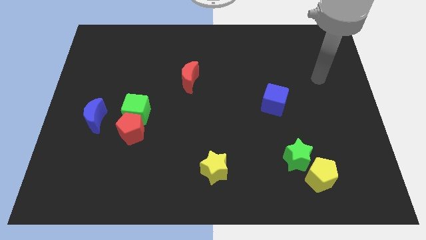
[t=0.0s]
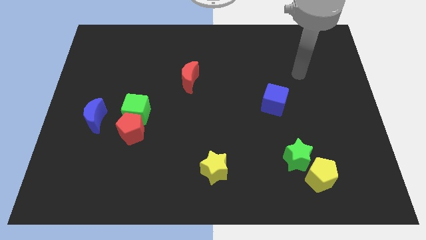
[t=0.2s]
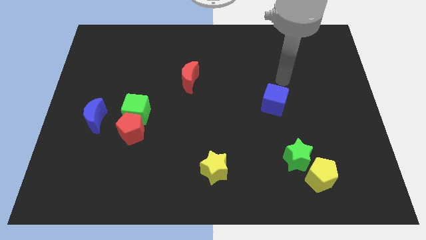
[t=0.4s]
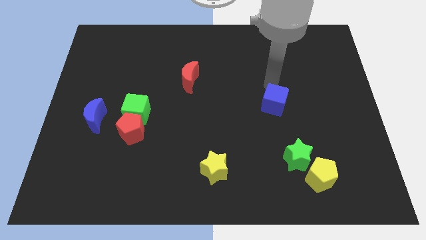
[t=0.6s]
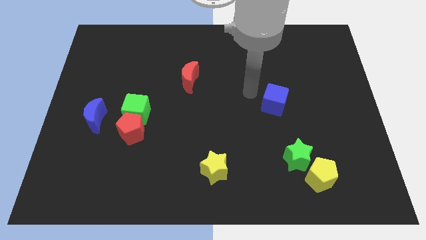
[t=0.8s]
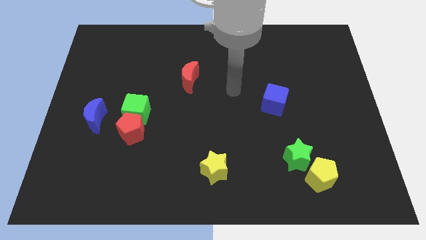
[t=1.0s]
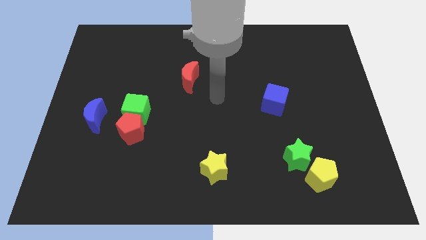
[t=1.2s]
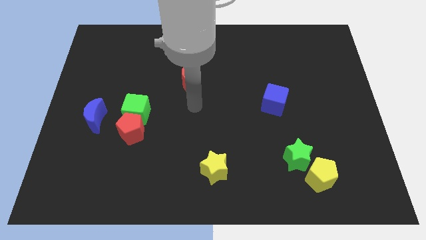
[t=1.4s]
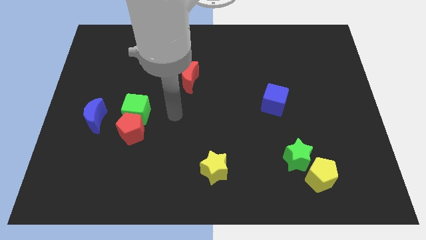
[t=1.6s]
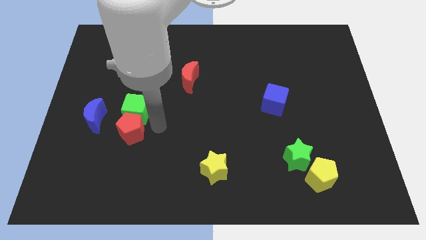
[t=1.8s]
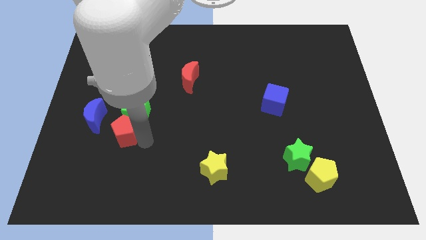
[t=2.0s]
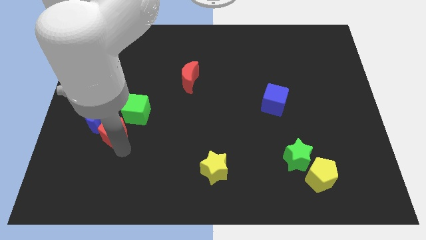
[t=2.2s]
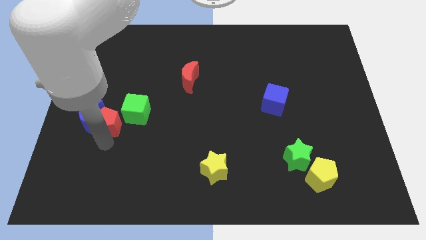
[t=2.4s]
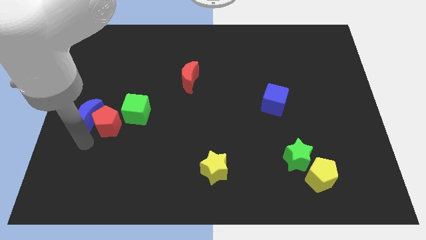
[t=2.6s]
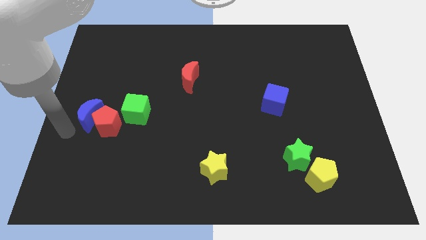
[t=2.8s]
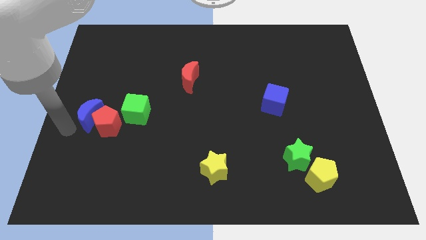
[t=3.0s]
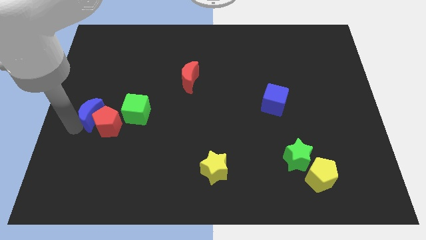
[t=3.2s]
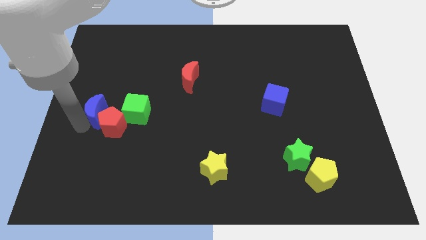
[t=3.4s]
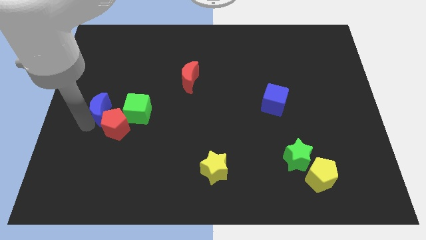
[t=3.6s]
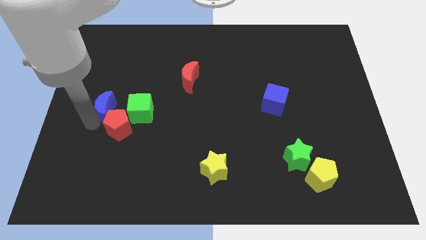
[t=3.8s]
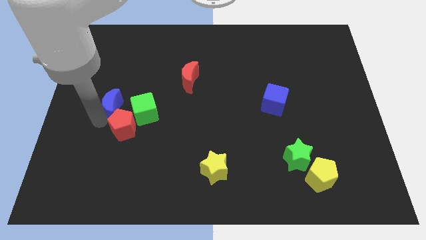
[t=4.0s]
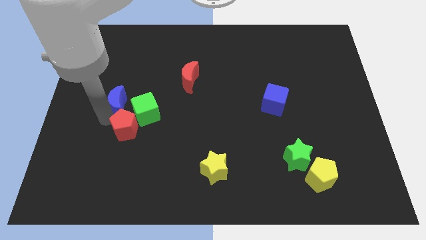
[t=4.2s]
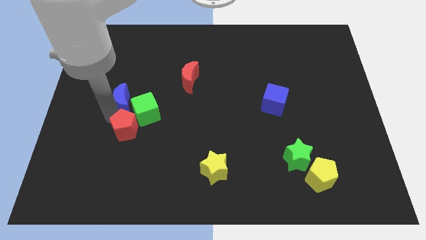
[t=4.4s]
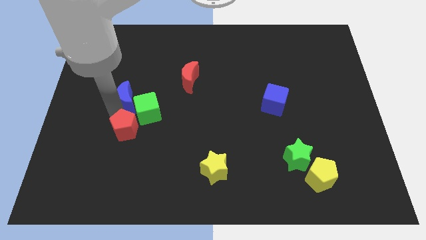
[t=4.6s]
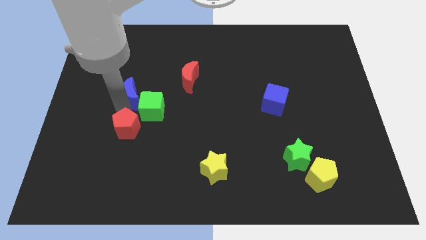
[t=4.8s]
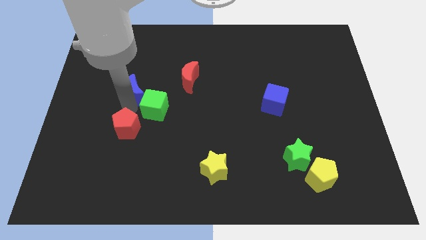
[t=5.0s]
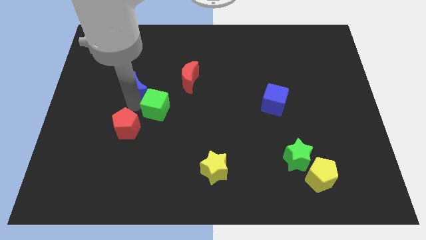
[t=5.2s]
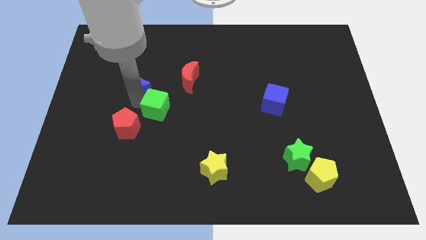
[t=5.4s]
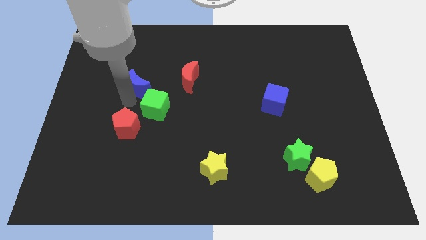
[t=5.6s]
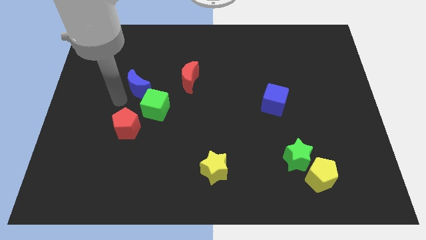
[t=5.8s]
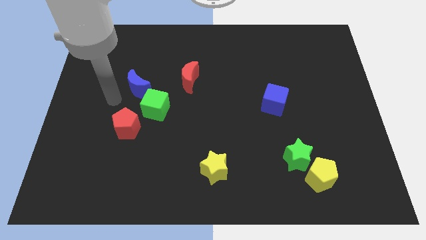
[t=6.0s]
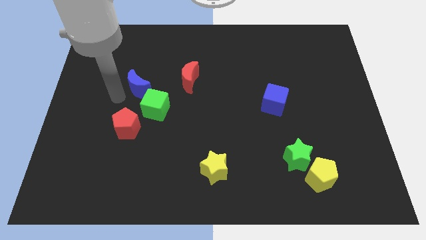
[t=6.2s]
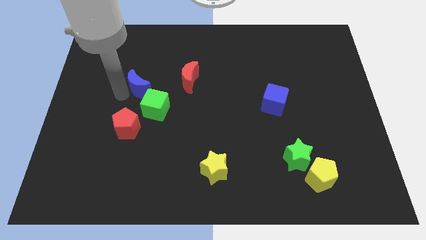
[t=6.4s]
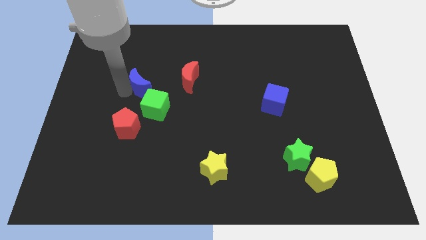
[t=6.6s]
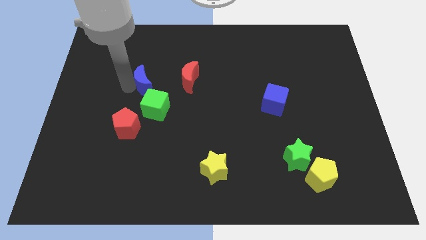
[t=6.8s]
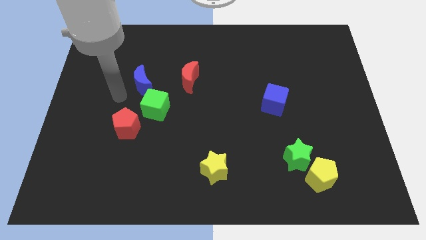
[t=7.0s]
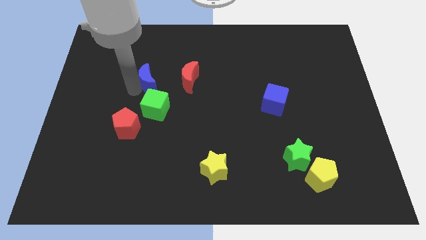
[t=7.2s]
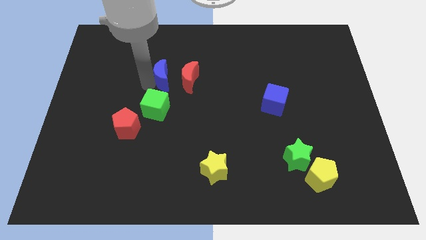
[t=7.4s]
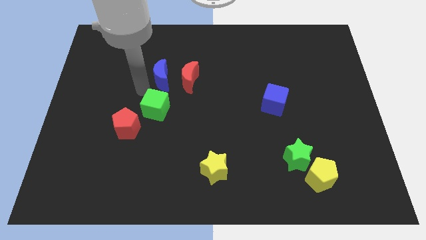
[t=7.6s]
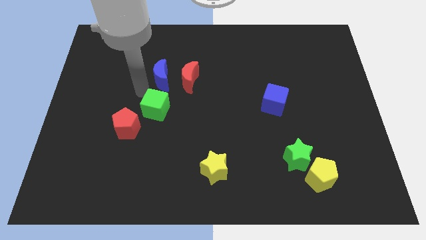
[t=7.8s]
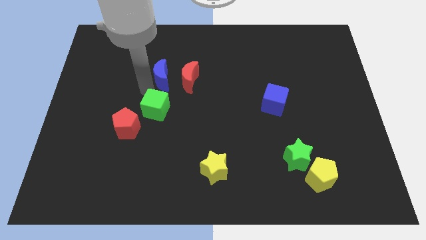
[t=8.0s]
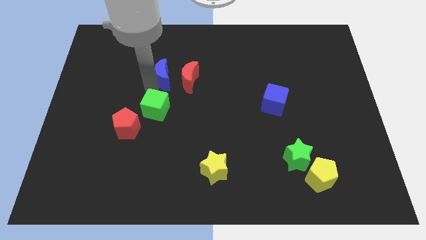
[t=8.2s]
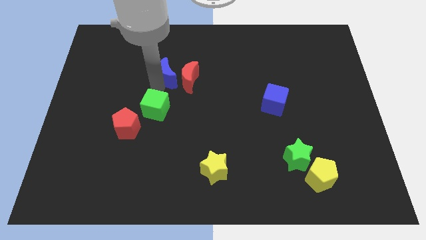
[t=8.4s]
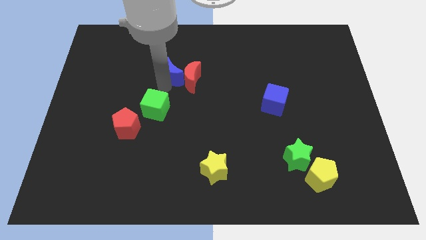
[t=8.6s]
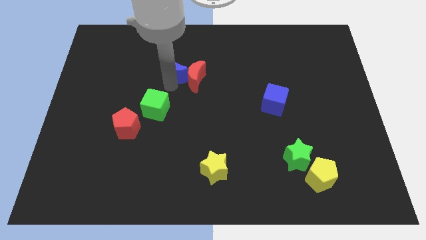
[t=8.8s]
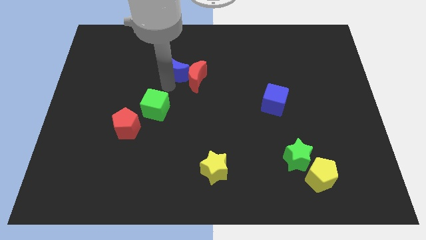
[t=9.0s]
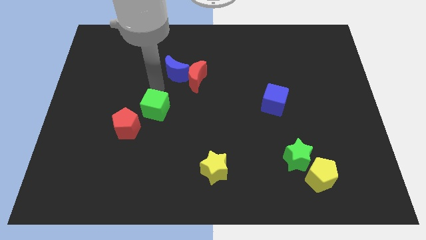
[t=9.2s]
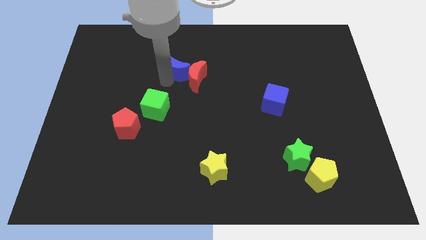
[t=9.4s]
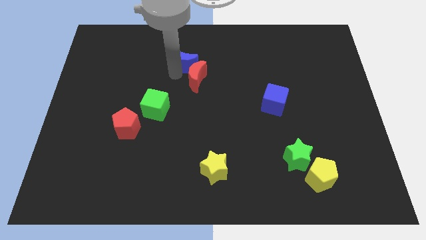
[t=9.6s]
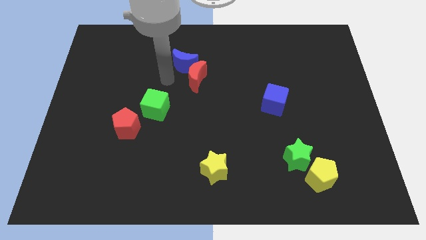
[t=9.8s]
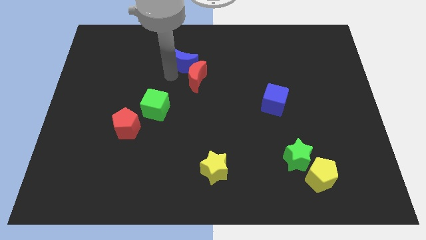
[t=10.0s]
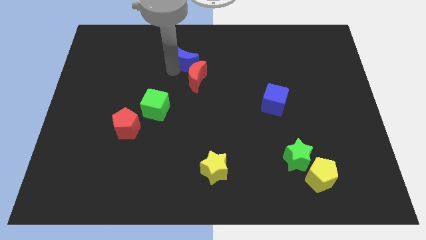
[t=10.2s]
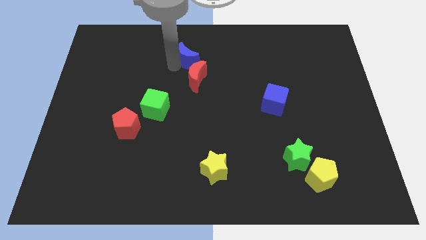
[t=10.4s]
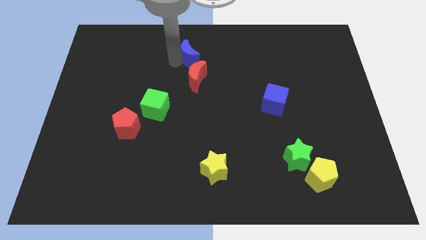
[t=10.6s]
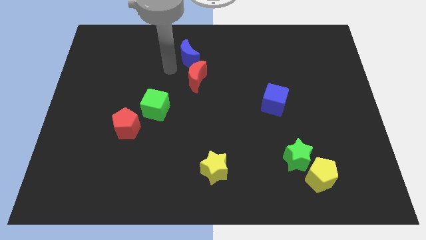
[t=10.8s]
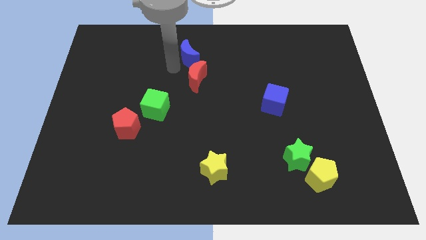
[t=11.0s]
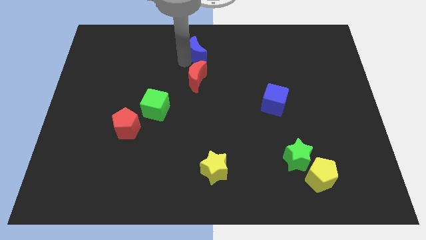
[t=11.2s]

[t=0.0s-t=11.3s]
push the blue moon to the towards your base

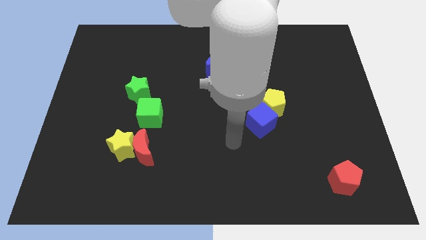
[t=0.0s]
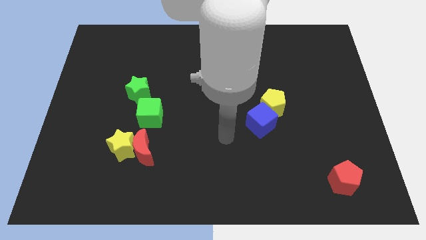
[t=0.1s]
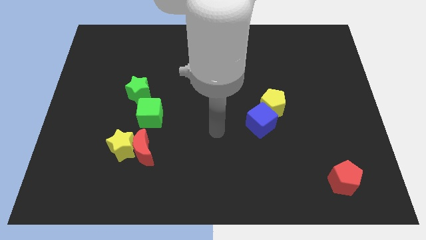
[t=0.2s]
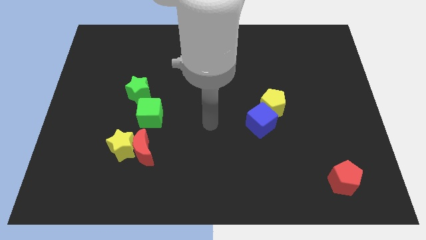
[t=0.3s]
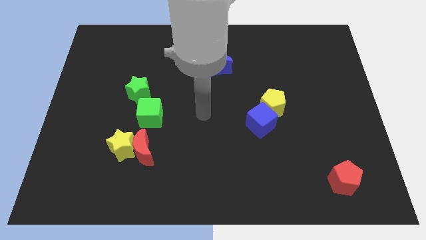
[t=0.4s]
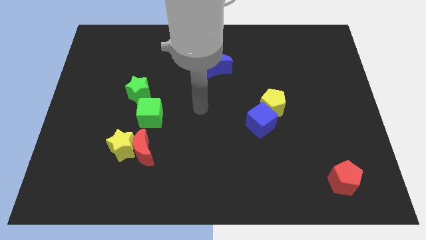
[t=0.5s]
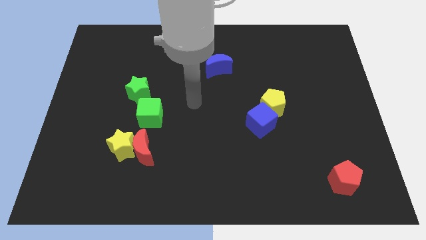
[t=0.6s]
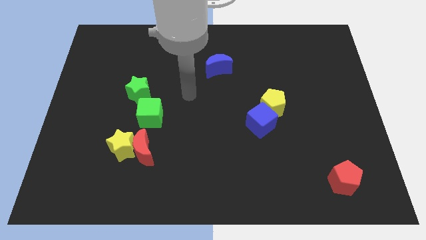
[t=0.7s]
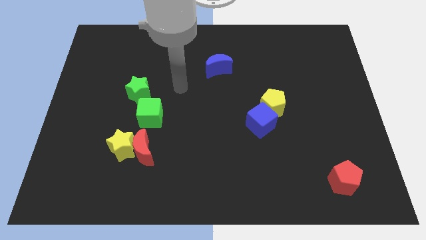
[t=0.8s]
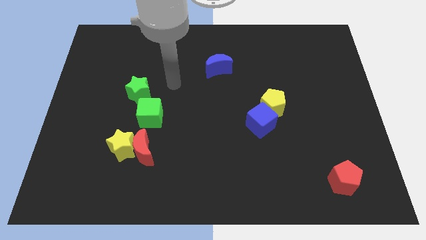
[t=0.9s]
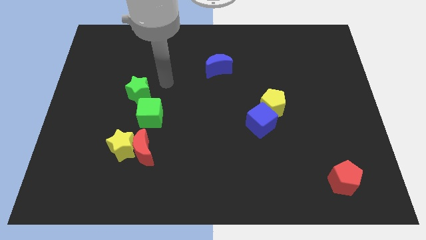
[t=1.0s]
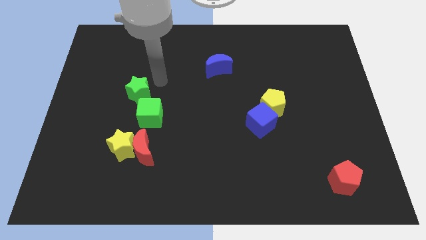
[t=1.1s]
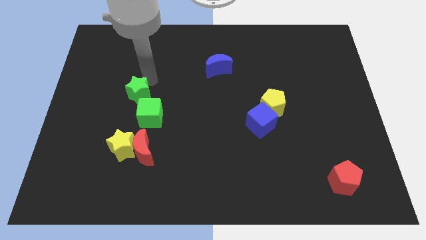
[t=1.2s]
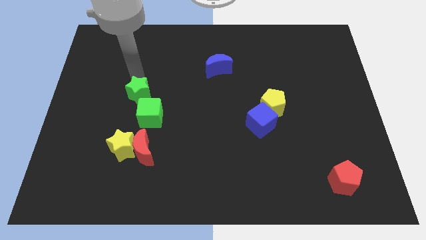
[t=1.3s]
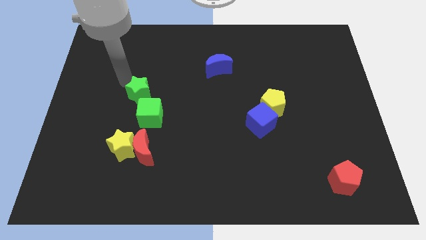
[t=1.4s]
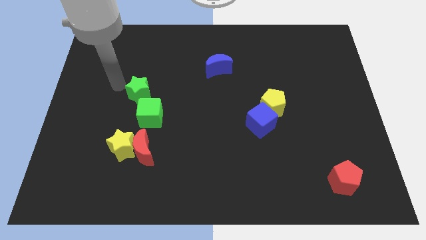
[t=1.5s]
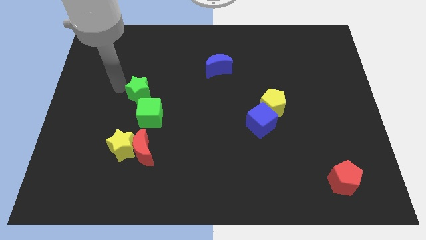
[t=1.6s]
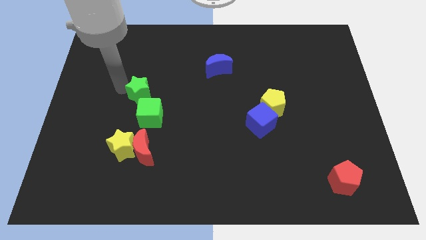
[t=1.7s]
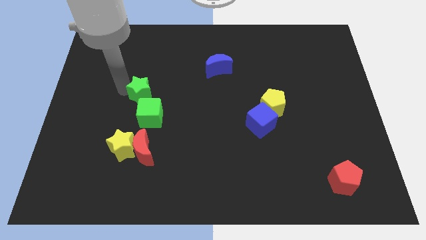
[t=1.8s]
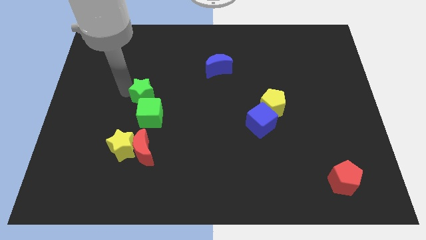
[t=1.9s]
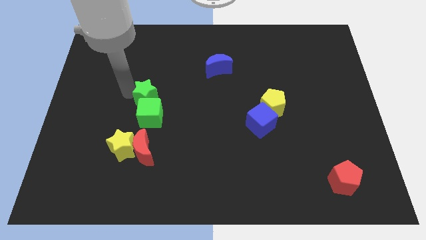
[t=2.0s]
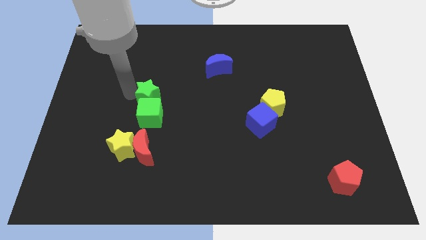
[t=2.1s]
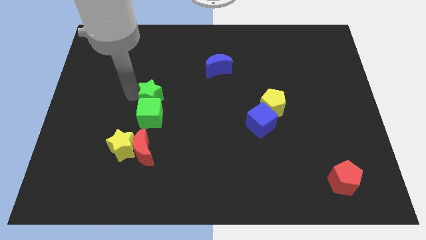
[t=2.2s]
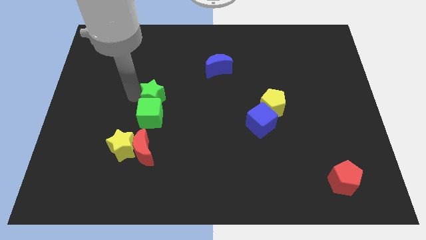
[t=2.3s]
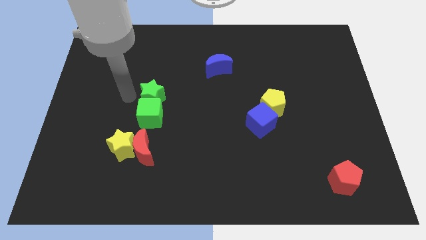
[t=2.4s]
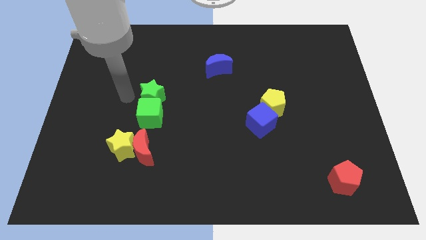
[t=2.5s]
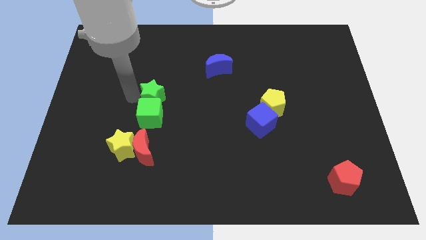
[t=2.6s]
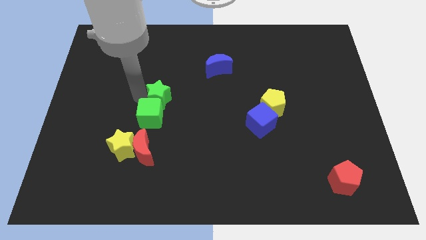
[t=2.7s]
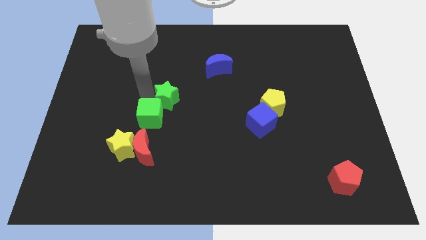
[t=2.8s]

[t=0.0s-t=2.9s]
move the green star to the center of the board
